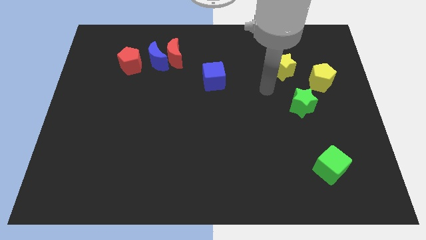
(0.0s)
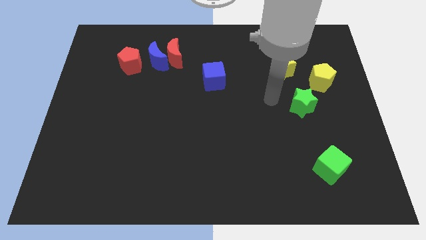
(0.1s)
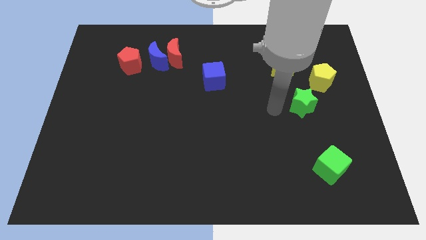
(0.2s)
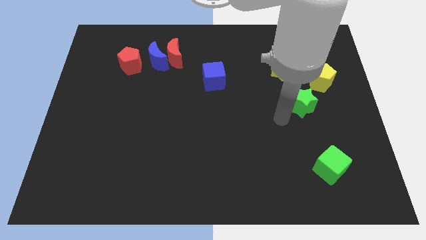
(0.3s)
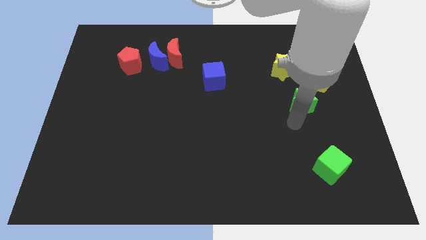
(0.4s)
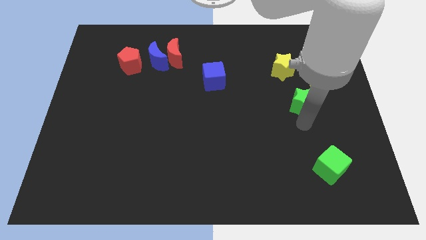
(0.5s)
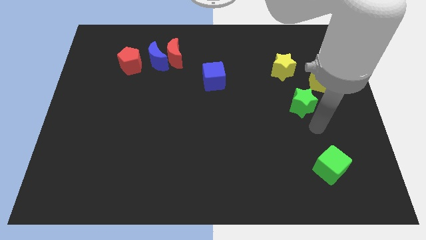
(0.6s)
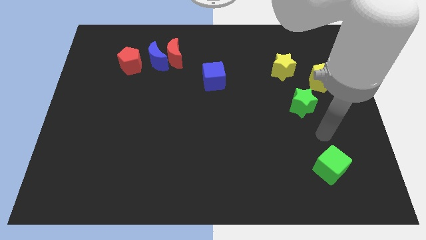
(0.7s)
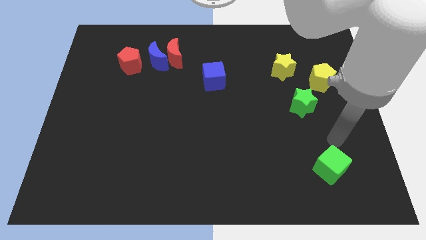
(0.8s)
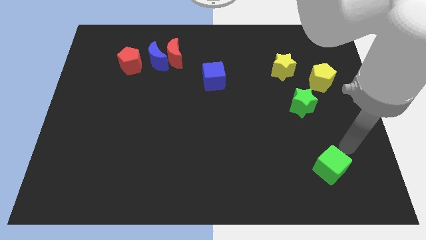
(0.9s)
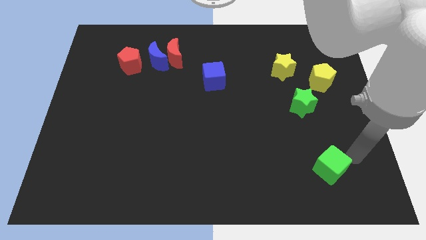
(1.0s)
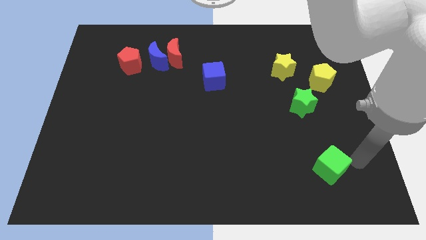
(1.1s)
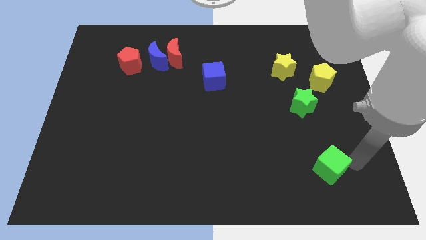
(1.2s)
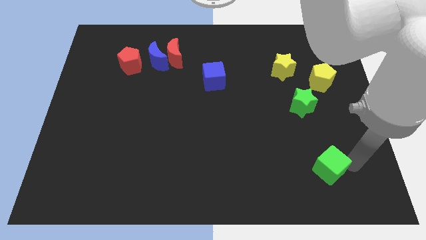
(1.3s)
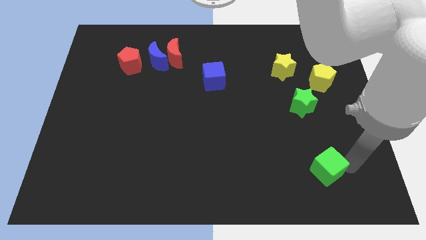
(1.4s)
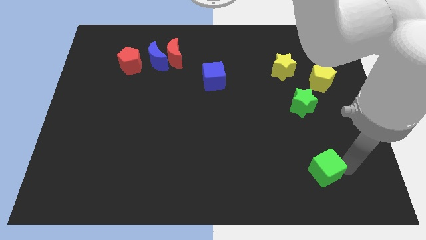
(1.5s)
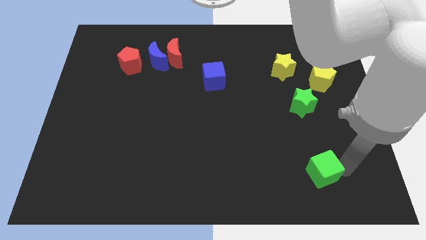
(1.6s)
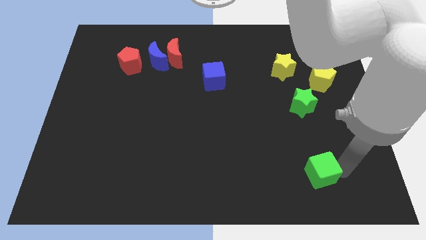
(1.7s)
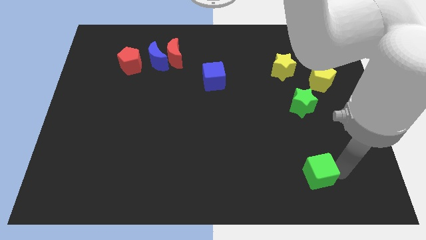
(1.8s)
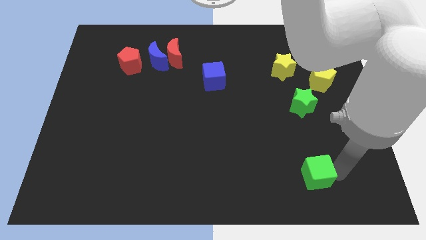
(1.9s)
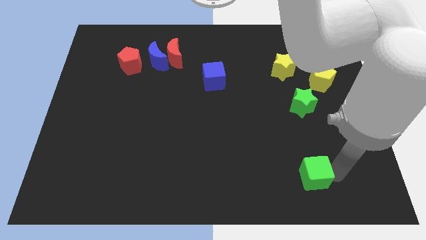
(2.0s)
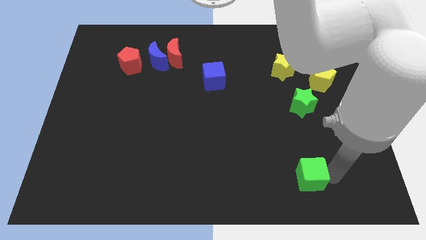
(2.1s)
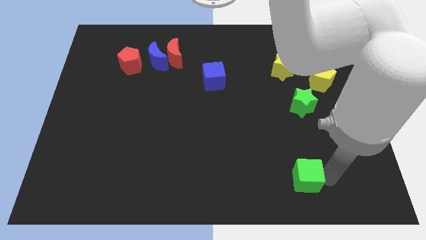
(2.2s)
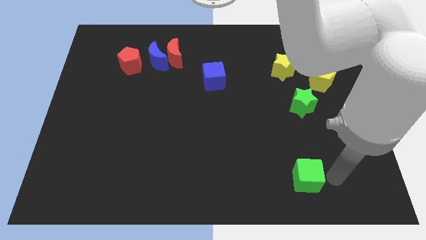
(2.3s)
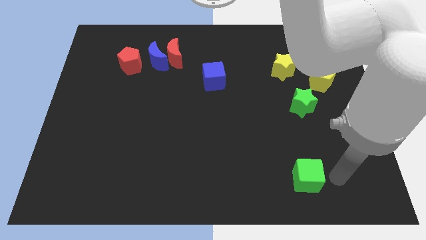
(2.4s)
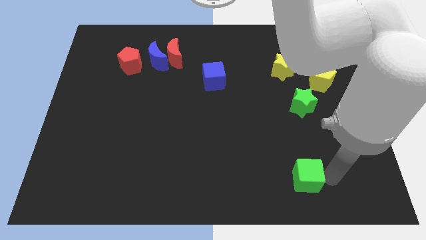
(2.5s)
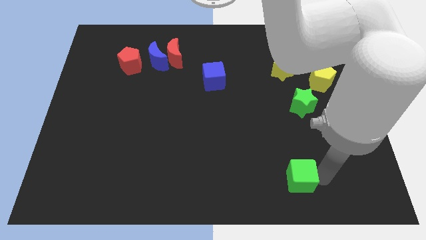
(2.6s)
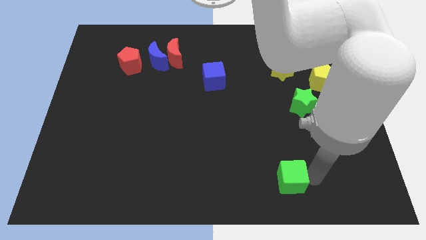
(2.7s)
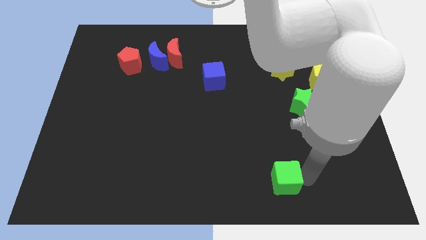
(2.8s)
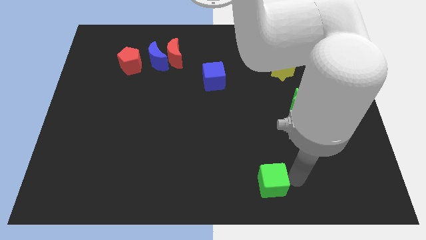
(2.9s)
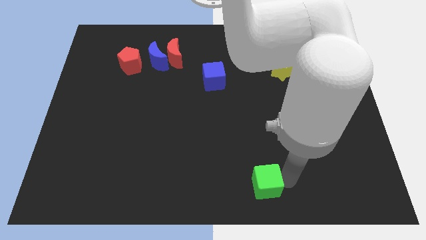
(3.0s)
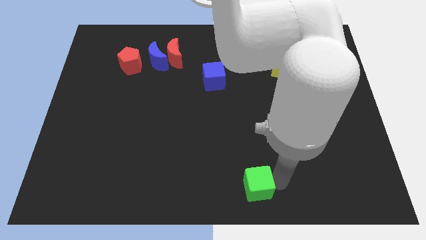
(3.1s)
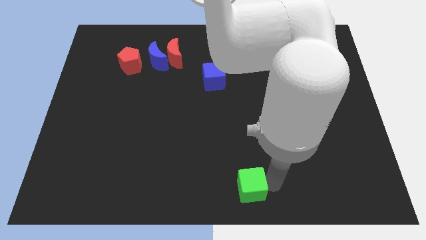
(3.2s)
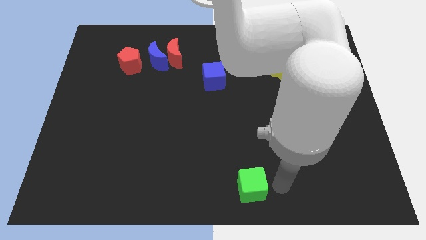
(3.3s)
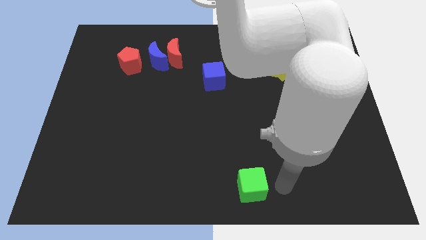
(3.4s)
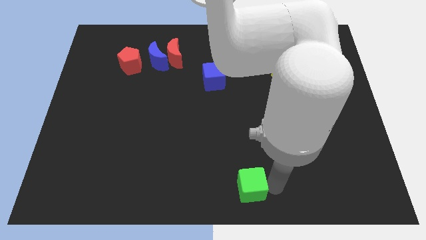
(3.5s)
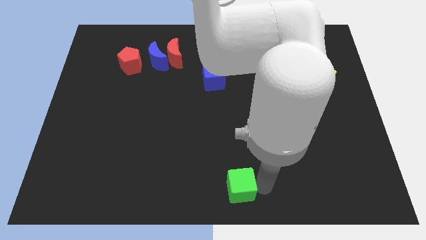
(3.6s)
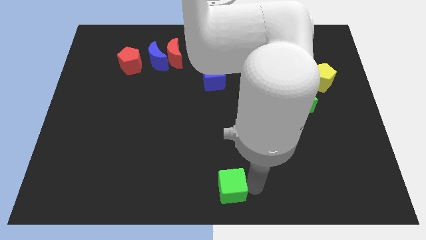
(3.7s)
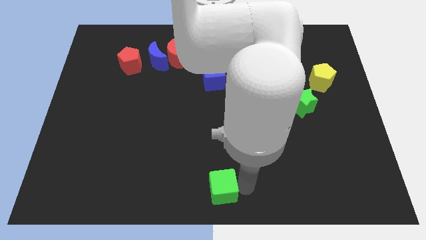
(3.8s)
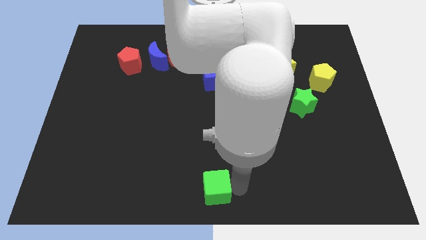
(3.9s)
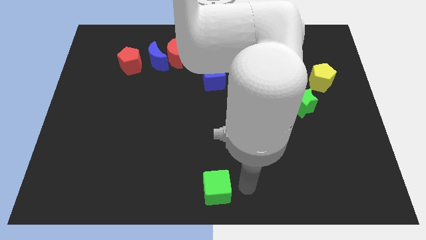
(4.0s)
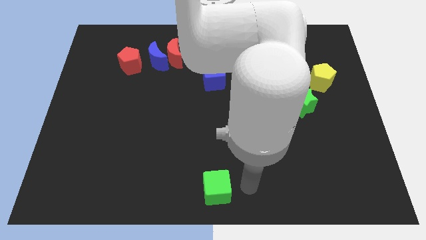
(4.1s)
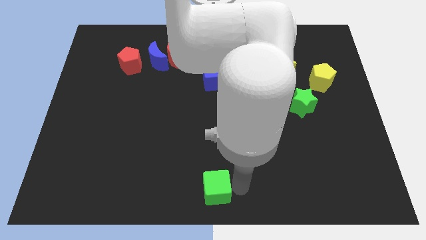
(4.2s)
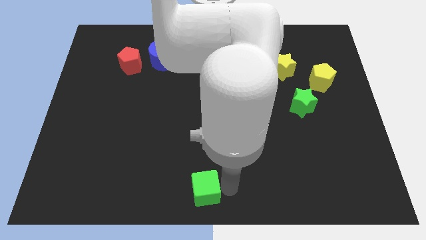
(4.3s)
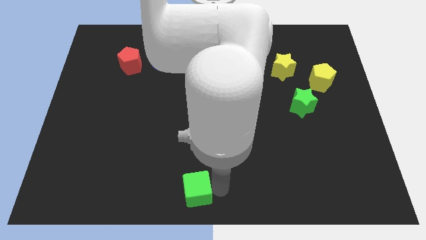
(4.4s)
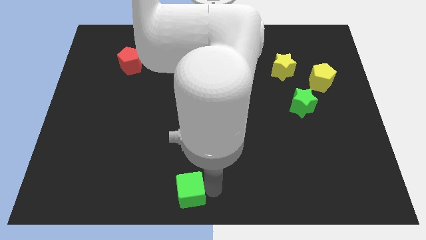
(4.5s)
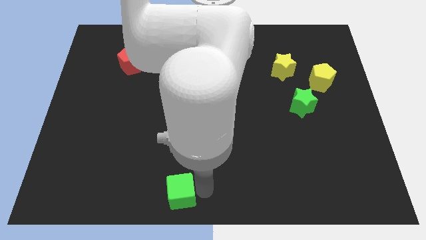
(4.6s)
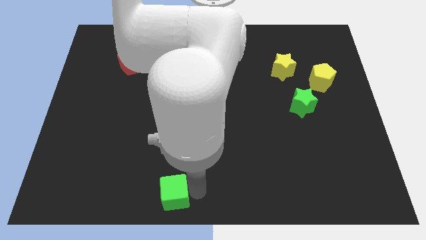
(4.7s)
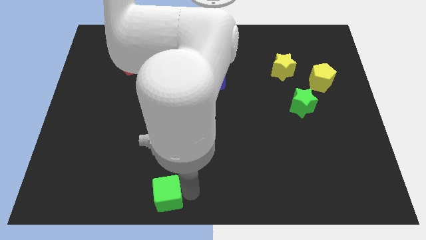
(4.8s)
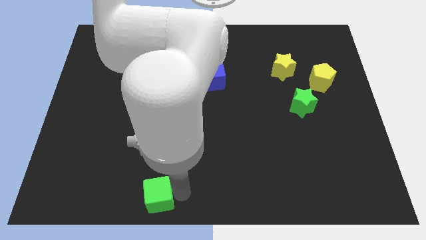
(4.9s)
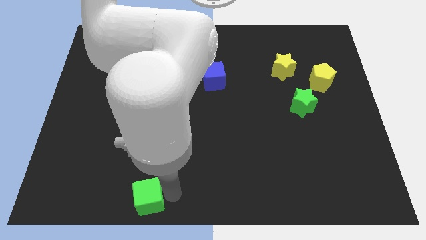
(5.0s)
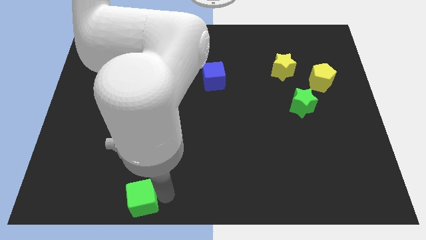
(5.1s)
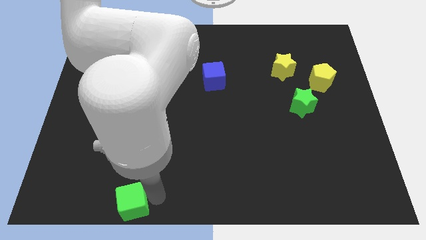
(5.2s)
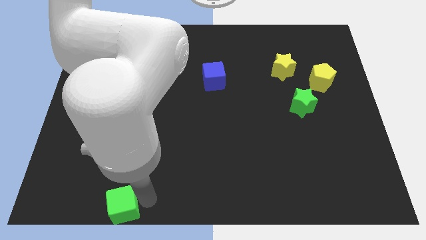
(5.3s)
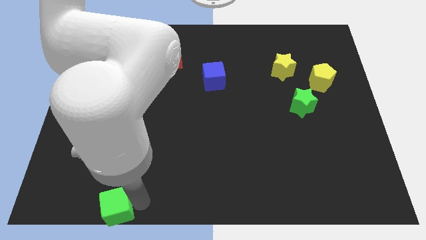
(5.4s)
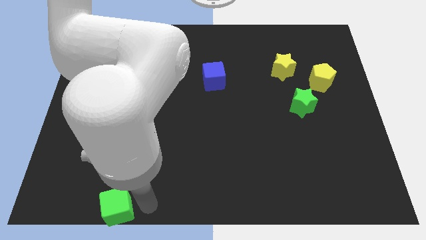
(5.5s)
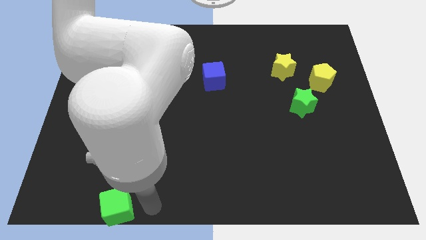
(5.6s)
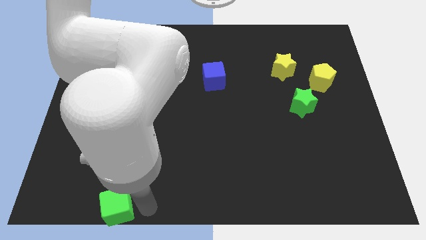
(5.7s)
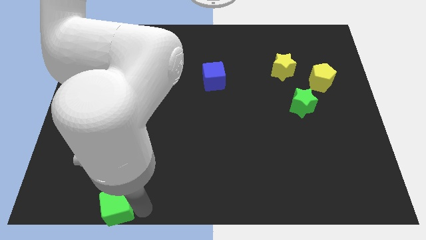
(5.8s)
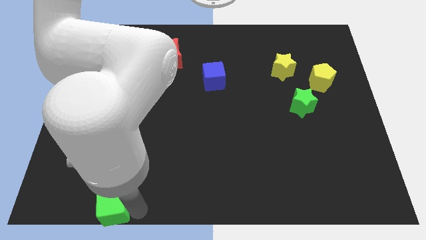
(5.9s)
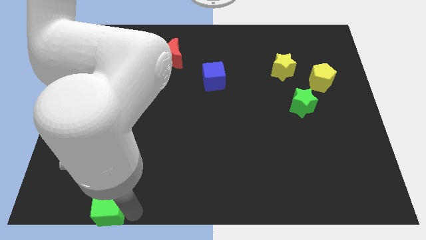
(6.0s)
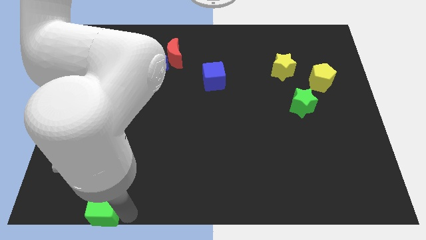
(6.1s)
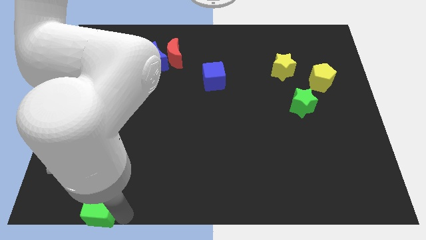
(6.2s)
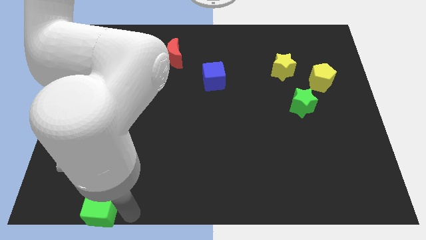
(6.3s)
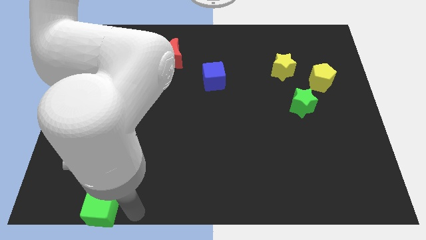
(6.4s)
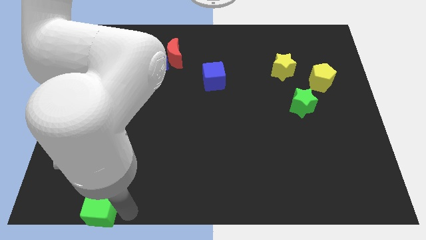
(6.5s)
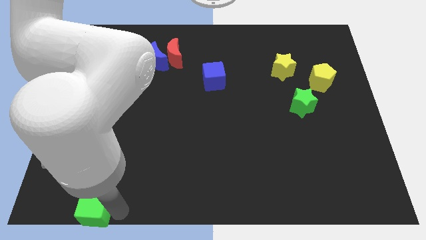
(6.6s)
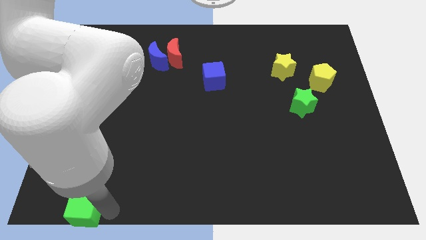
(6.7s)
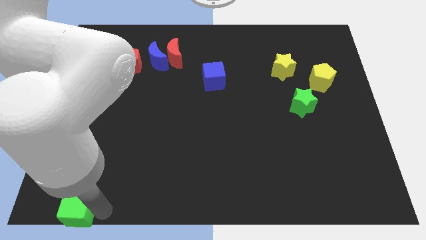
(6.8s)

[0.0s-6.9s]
move the green cube to the bottom left
